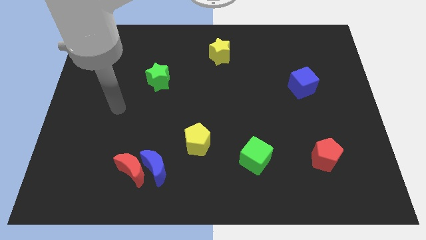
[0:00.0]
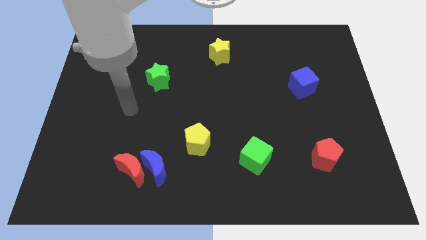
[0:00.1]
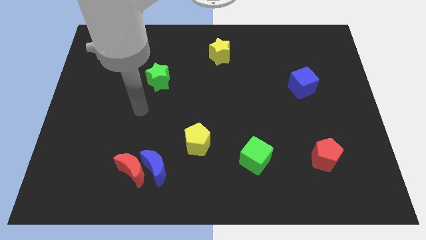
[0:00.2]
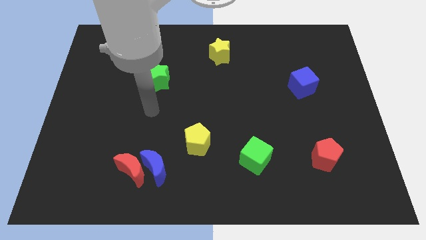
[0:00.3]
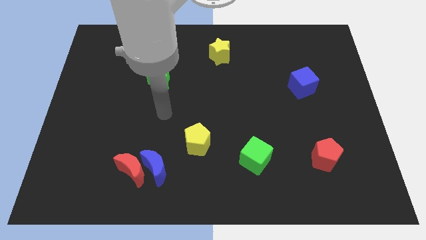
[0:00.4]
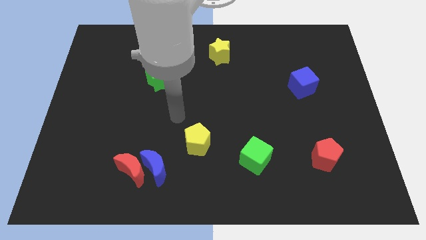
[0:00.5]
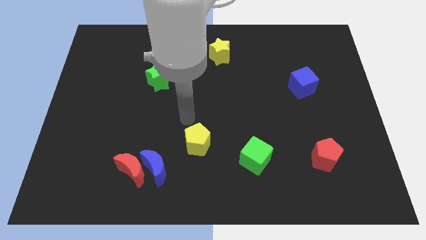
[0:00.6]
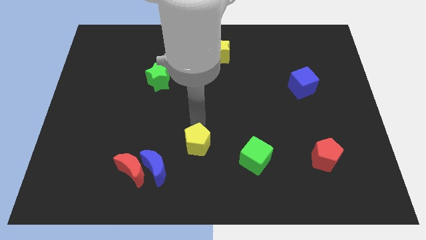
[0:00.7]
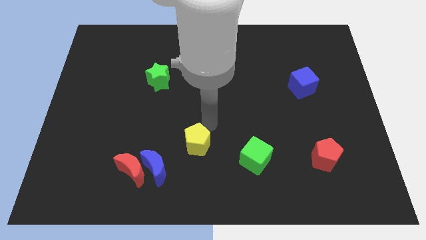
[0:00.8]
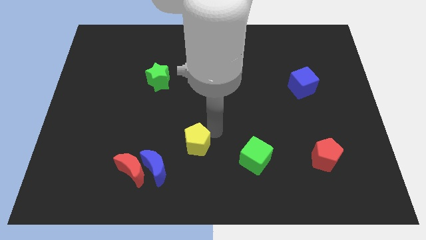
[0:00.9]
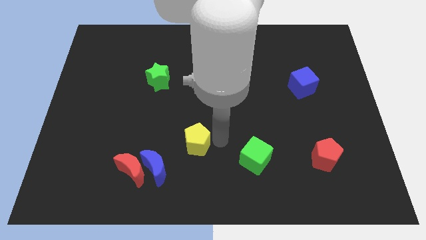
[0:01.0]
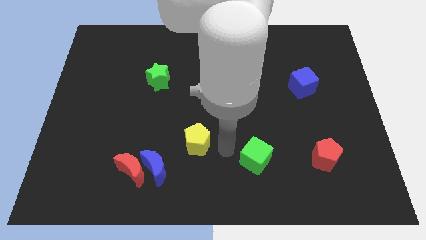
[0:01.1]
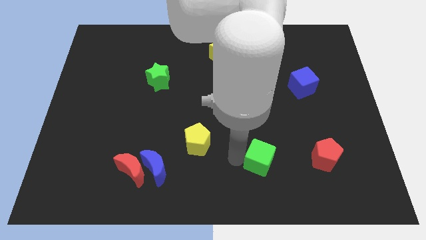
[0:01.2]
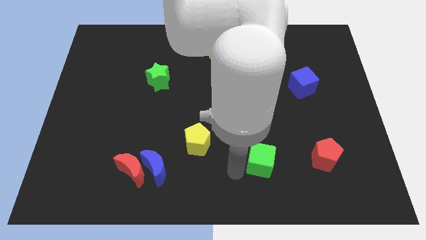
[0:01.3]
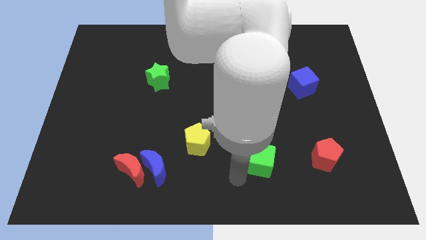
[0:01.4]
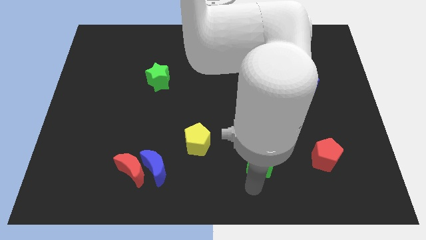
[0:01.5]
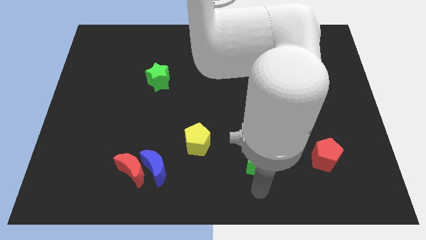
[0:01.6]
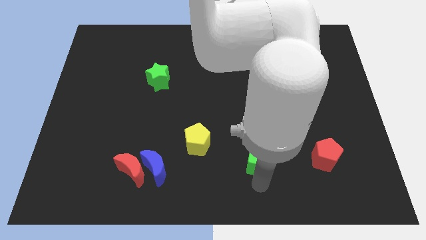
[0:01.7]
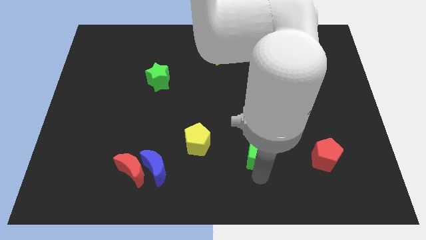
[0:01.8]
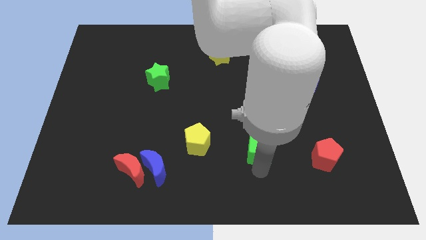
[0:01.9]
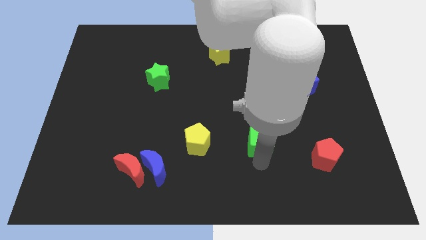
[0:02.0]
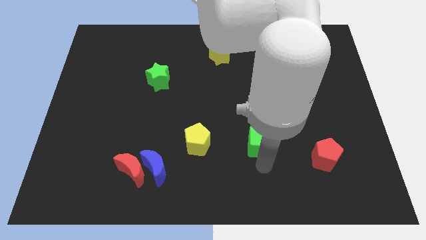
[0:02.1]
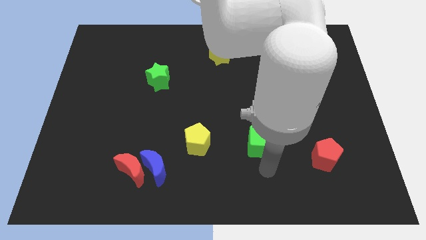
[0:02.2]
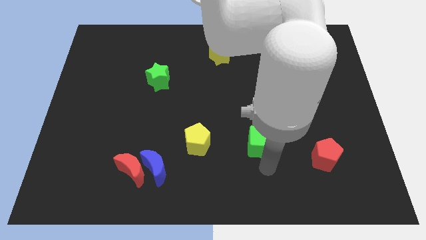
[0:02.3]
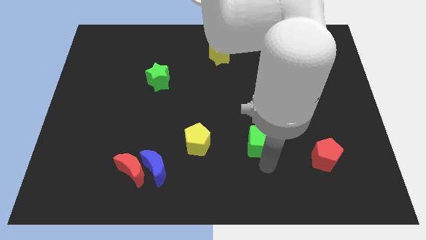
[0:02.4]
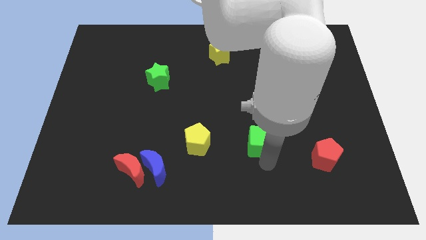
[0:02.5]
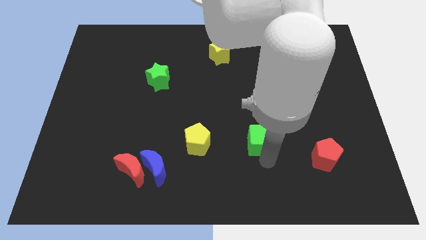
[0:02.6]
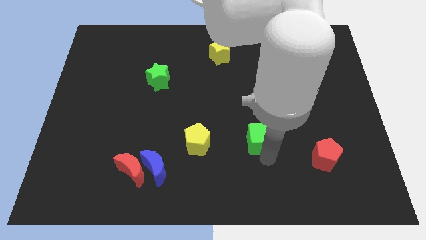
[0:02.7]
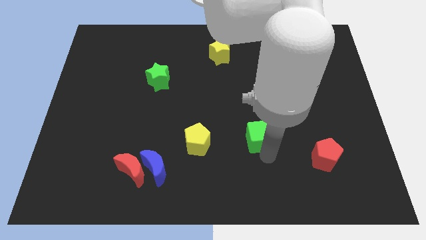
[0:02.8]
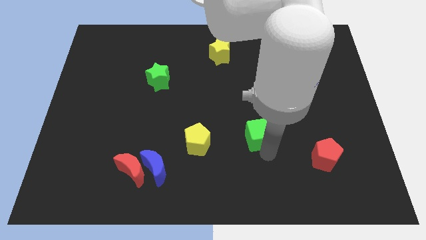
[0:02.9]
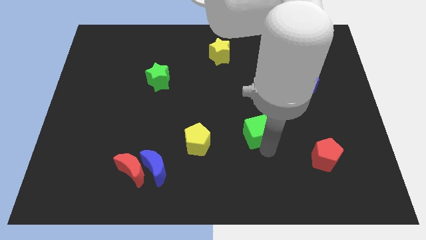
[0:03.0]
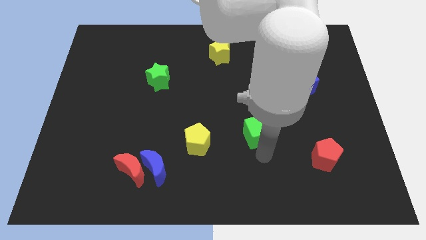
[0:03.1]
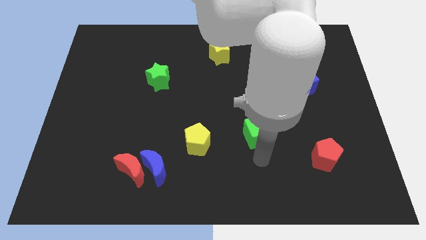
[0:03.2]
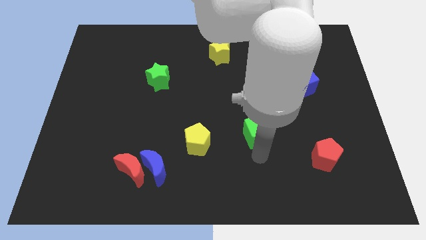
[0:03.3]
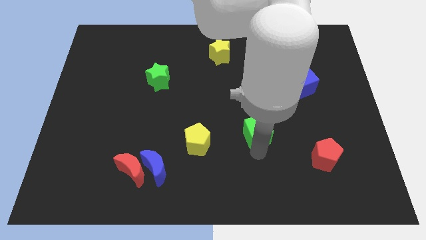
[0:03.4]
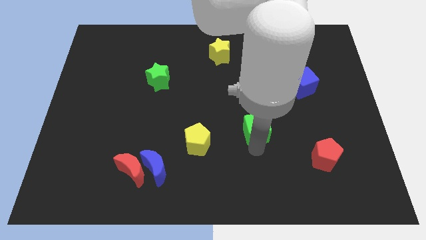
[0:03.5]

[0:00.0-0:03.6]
slightly move the green cube up

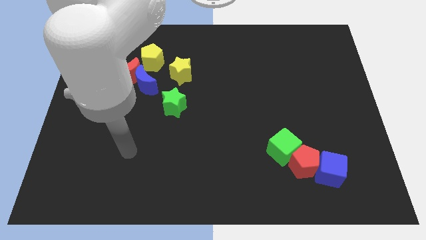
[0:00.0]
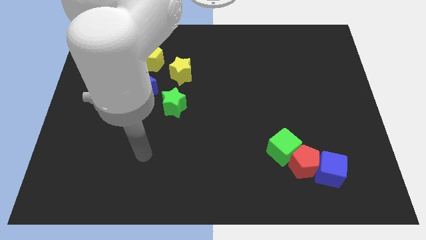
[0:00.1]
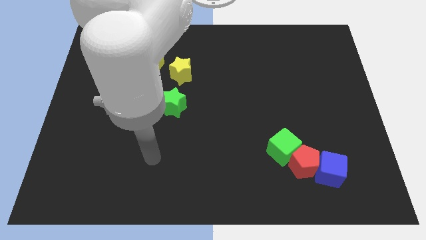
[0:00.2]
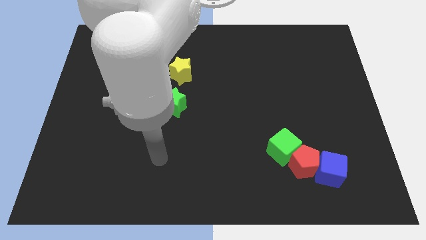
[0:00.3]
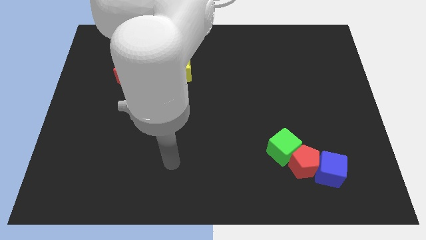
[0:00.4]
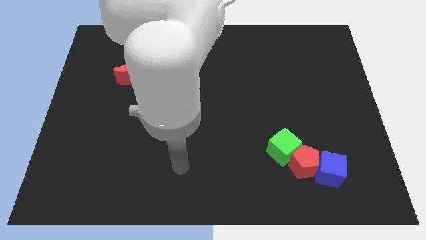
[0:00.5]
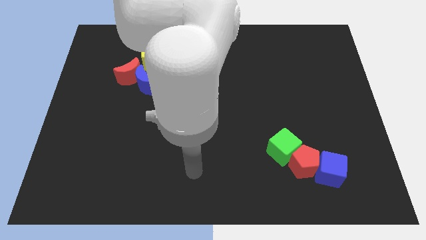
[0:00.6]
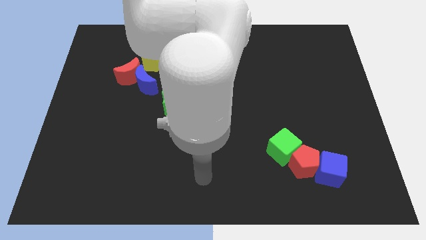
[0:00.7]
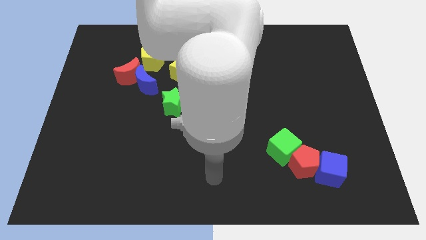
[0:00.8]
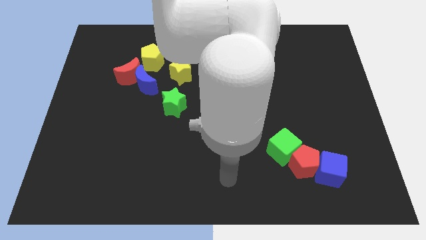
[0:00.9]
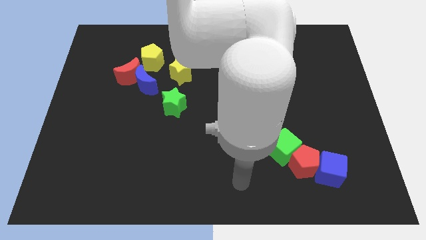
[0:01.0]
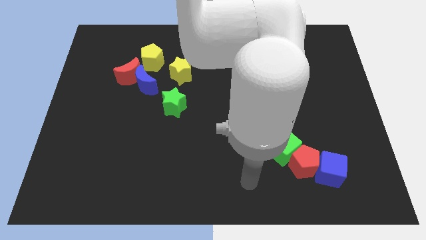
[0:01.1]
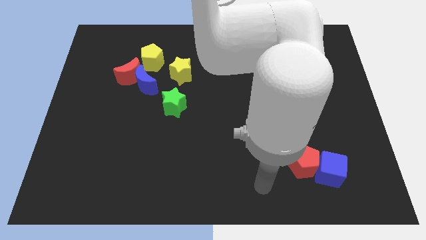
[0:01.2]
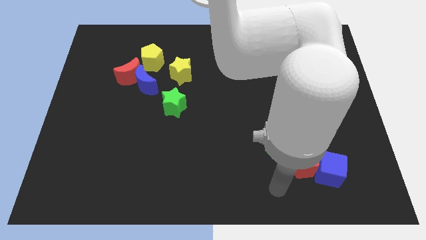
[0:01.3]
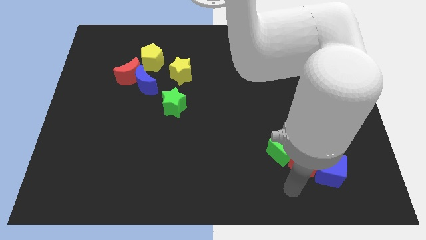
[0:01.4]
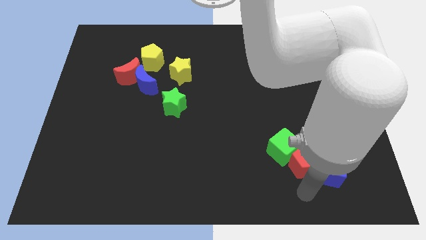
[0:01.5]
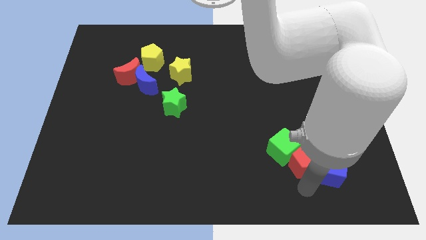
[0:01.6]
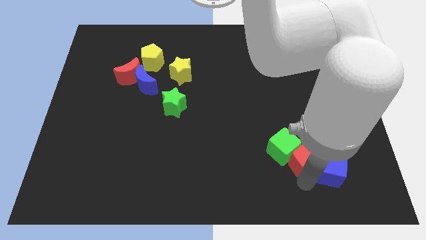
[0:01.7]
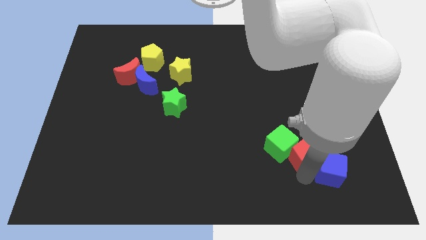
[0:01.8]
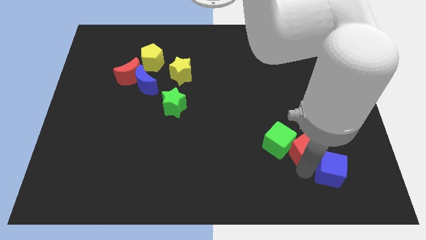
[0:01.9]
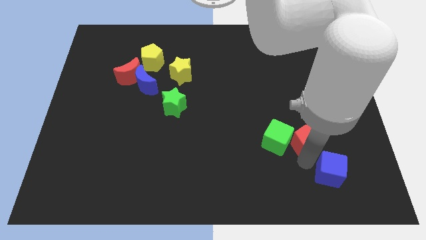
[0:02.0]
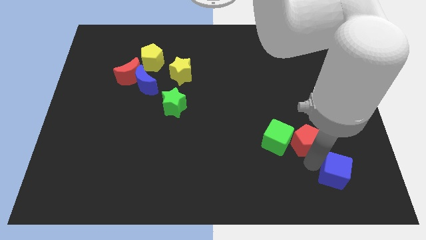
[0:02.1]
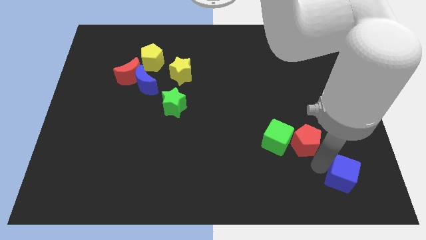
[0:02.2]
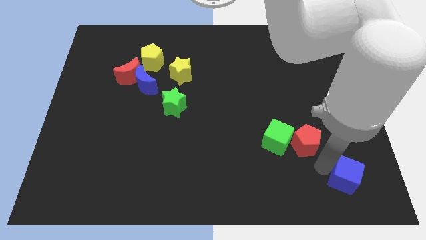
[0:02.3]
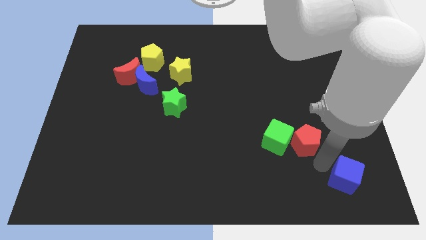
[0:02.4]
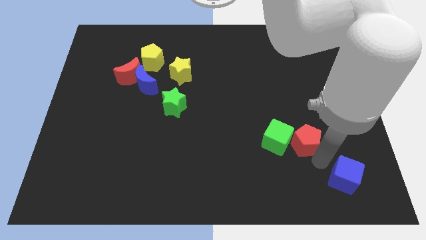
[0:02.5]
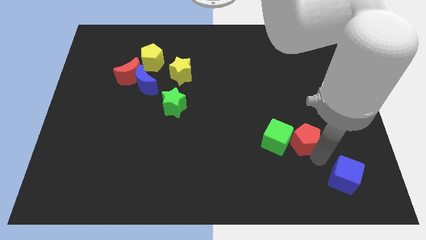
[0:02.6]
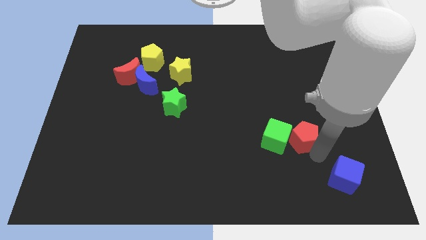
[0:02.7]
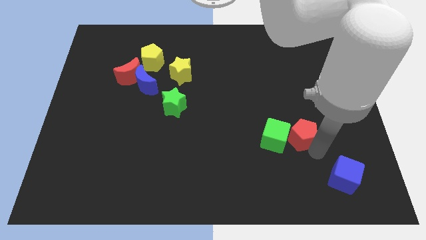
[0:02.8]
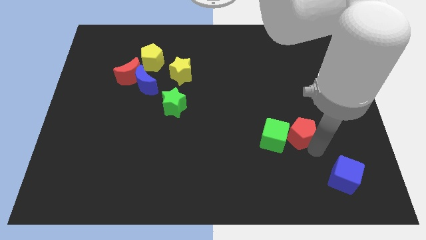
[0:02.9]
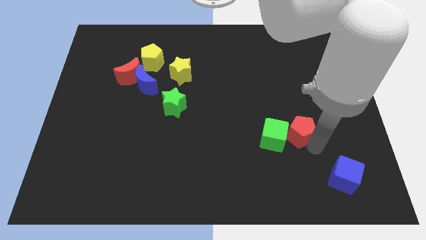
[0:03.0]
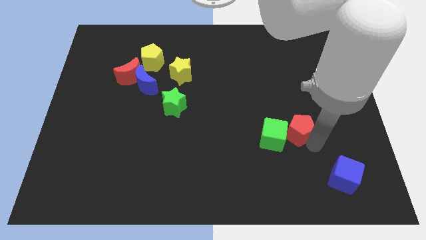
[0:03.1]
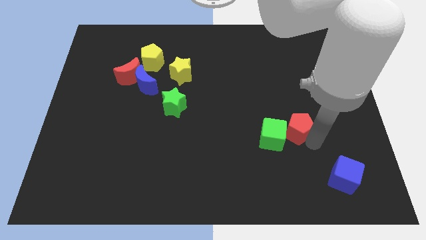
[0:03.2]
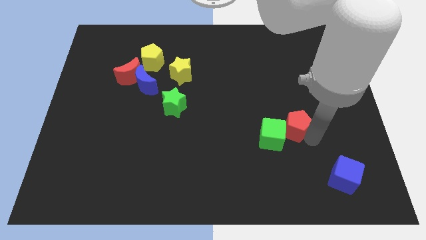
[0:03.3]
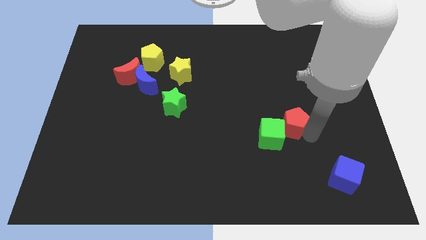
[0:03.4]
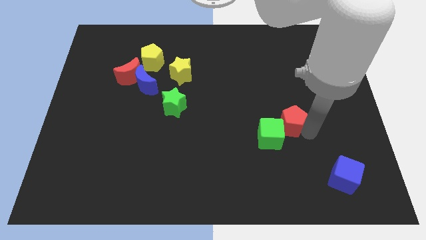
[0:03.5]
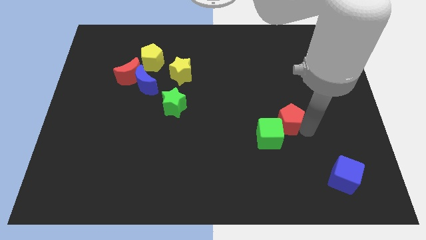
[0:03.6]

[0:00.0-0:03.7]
slightly push the red pentagon upwards and left diagonally

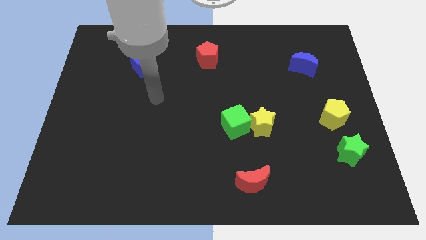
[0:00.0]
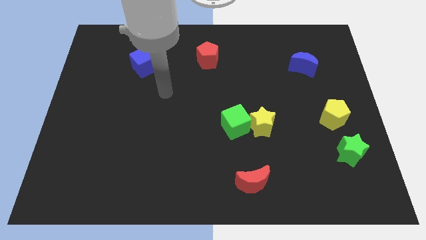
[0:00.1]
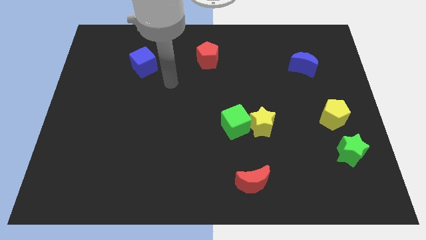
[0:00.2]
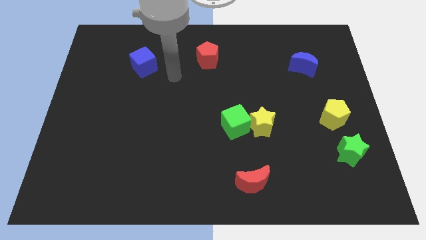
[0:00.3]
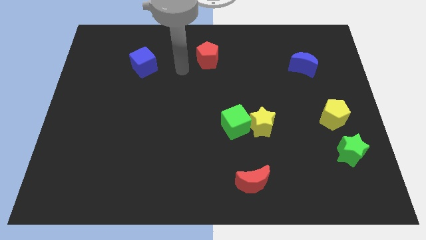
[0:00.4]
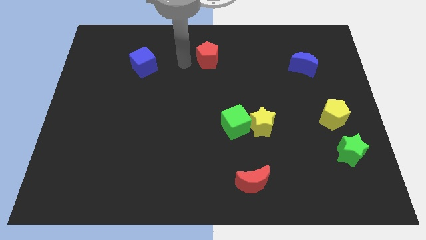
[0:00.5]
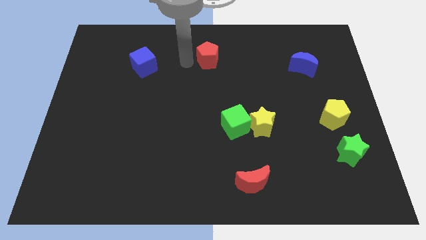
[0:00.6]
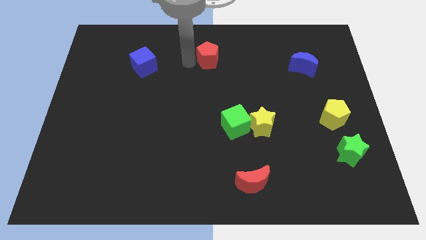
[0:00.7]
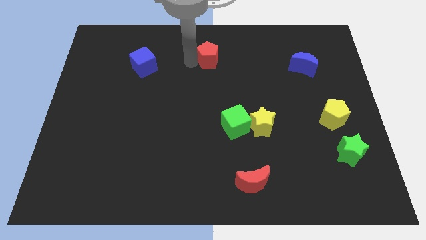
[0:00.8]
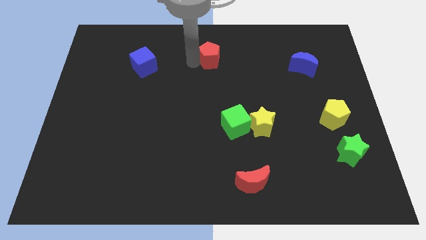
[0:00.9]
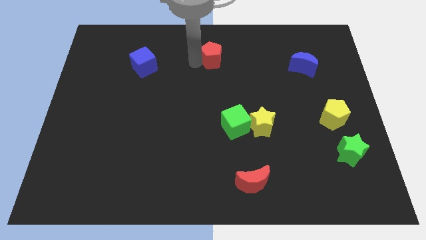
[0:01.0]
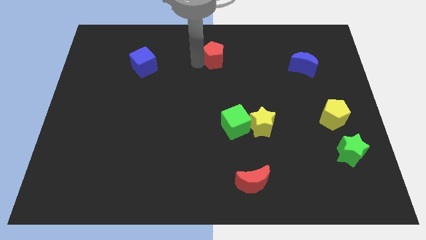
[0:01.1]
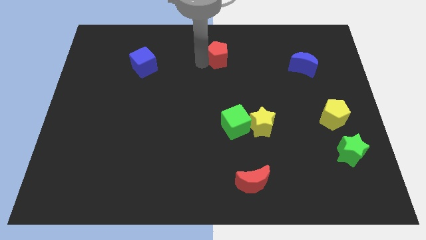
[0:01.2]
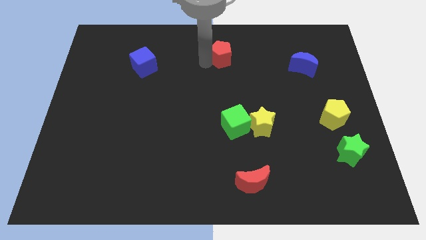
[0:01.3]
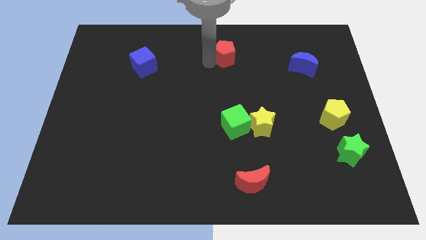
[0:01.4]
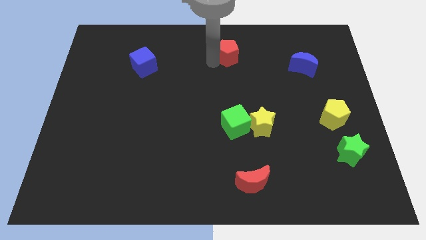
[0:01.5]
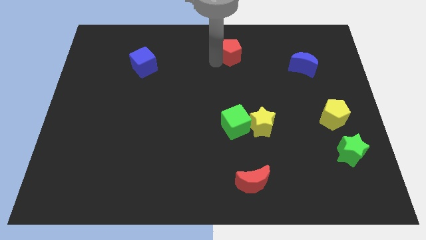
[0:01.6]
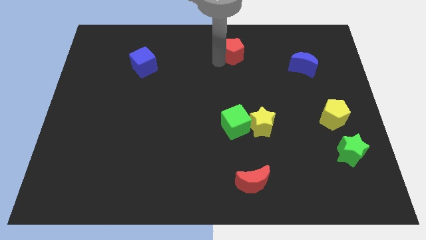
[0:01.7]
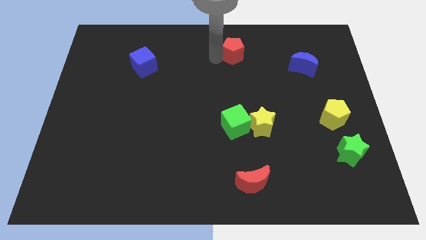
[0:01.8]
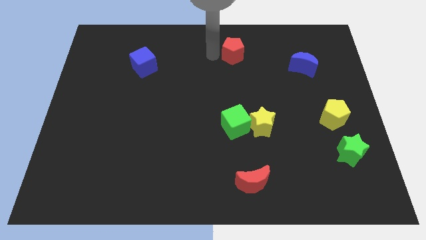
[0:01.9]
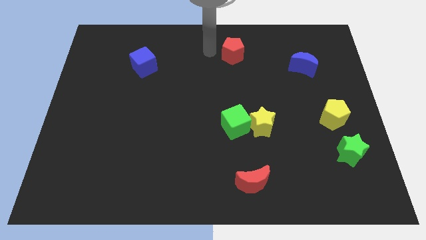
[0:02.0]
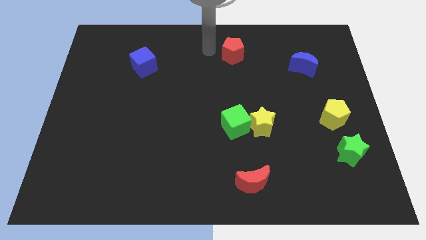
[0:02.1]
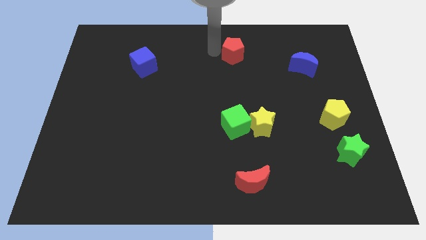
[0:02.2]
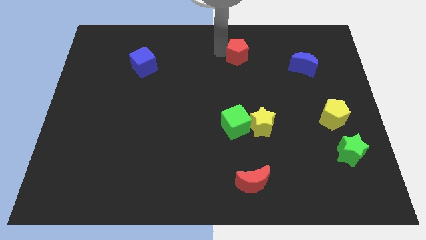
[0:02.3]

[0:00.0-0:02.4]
slightly push the red pentagon to the right
